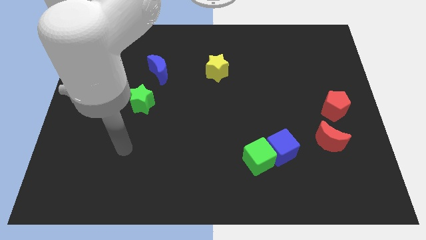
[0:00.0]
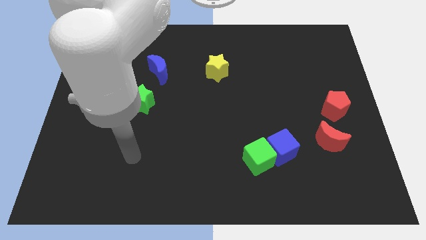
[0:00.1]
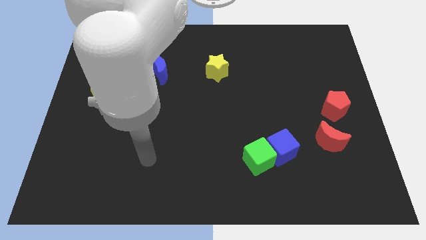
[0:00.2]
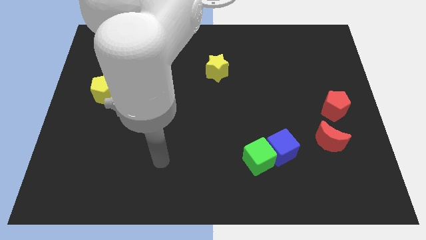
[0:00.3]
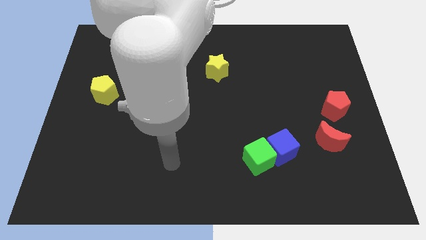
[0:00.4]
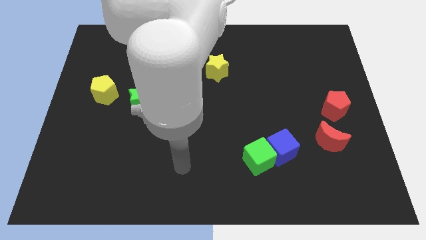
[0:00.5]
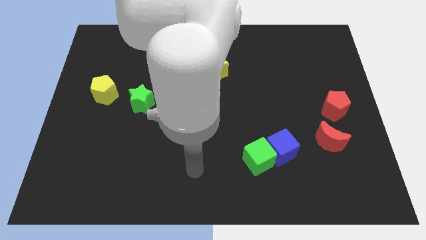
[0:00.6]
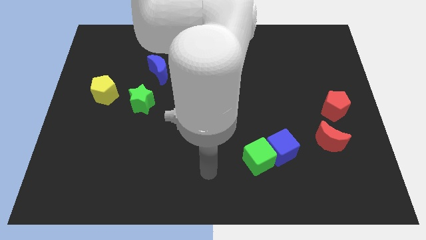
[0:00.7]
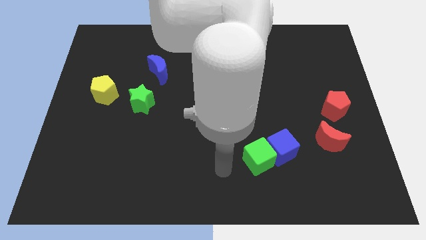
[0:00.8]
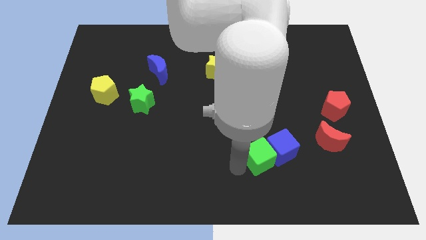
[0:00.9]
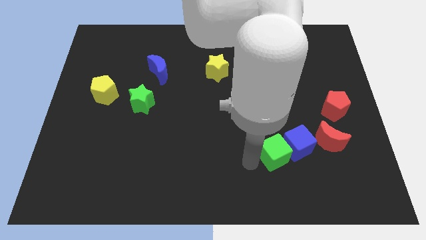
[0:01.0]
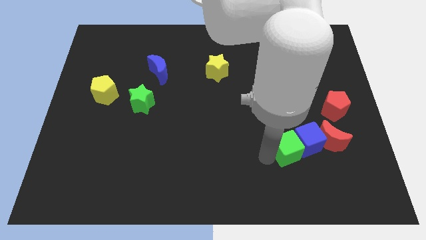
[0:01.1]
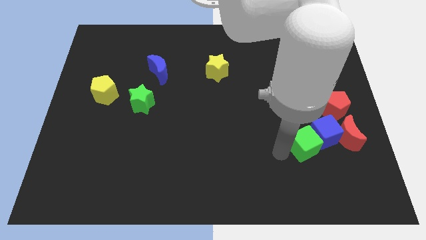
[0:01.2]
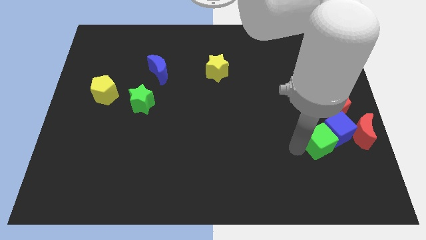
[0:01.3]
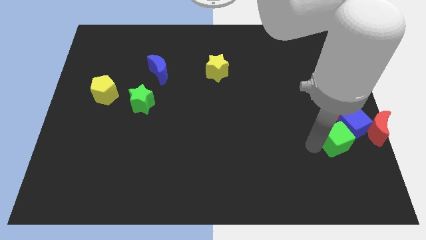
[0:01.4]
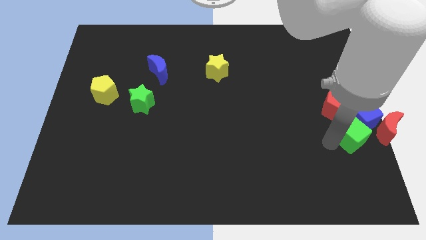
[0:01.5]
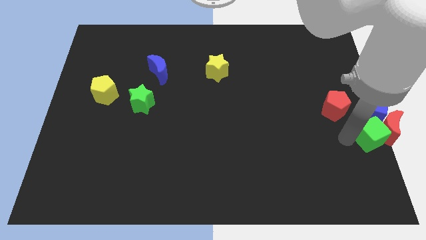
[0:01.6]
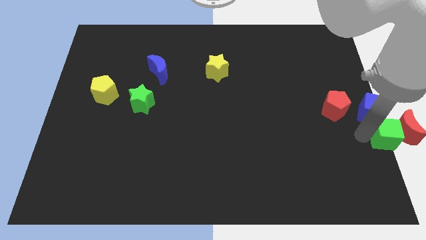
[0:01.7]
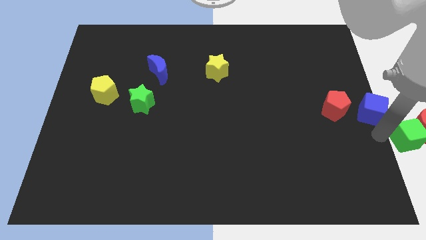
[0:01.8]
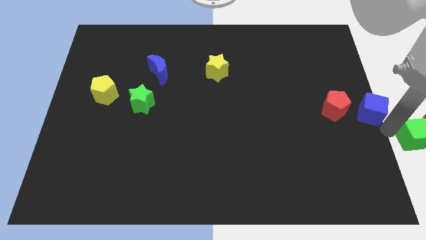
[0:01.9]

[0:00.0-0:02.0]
move the blue cube away from the green cube

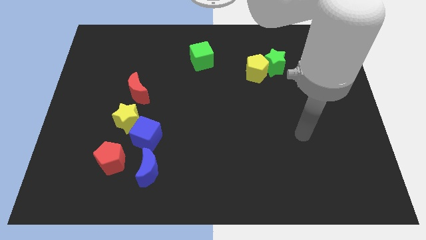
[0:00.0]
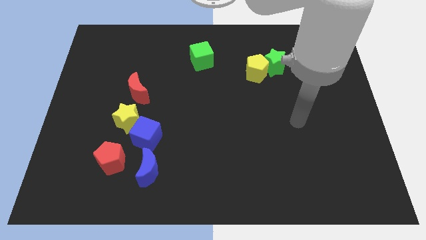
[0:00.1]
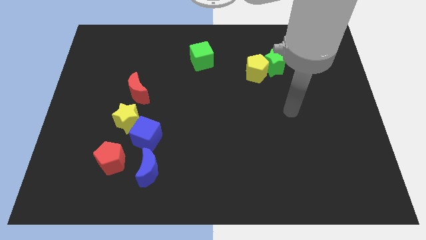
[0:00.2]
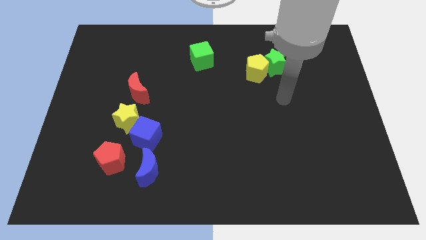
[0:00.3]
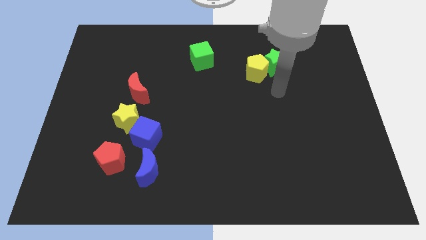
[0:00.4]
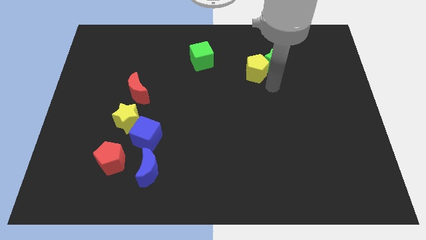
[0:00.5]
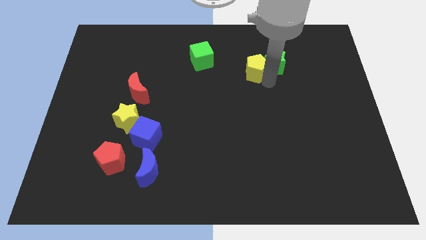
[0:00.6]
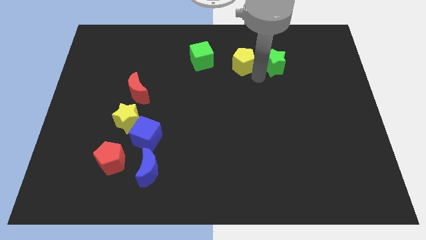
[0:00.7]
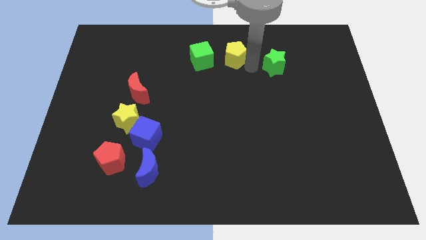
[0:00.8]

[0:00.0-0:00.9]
pull the green star apart from the yellow pentagon

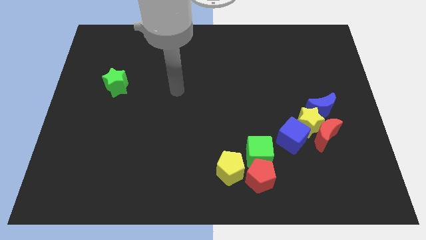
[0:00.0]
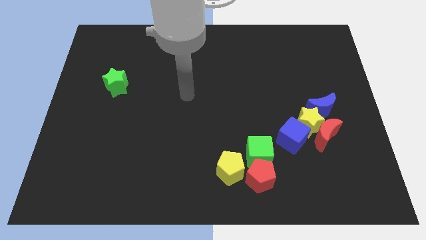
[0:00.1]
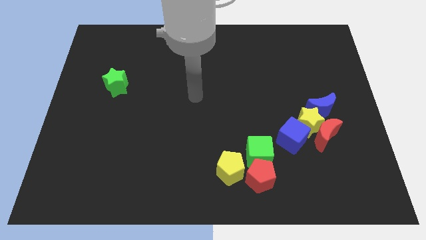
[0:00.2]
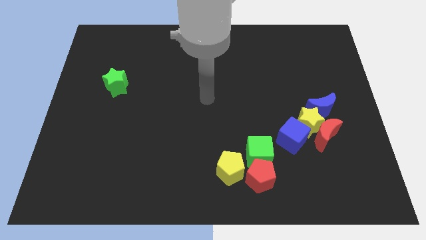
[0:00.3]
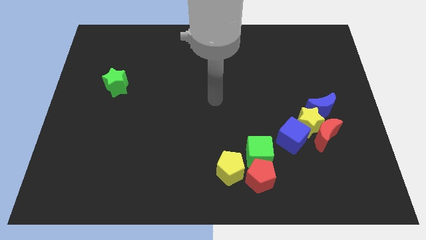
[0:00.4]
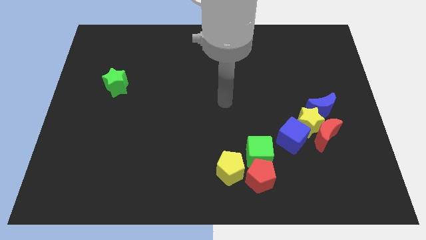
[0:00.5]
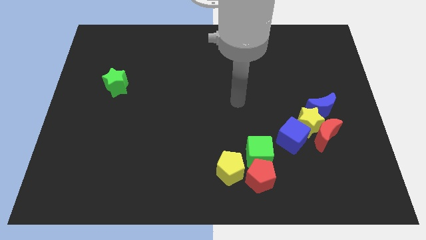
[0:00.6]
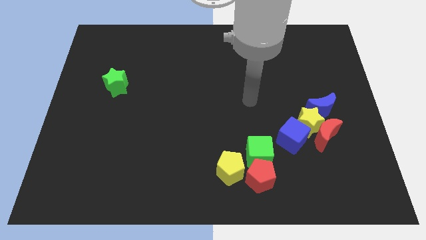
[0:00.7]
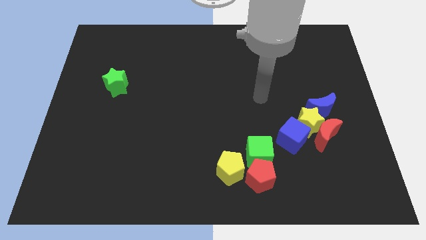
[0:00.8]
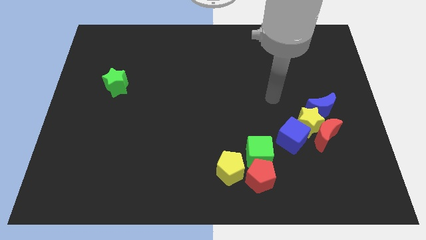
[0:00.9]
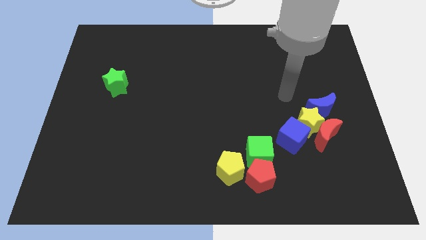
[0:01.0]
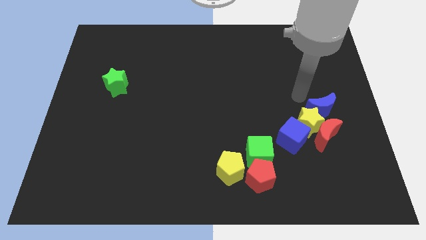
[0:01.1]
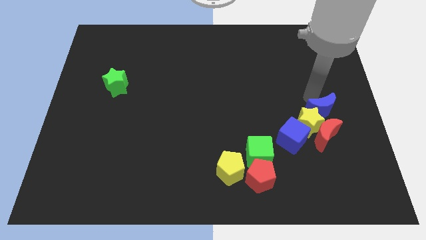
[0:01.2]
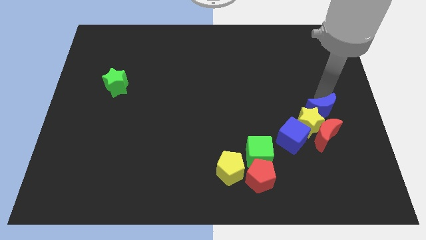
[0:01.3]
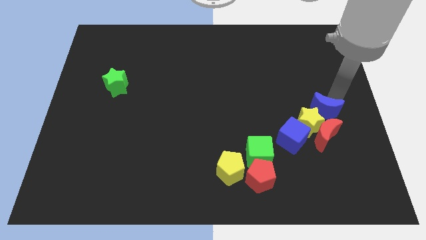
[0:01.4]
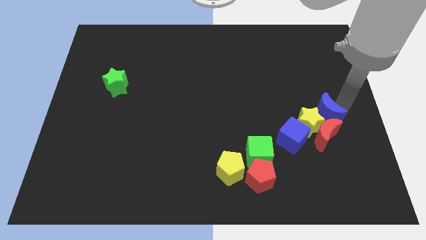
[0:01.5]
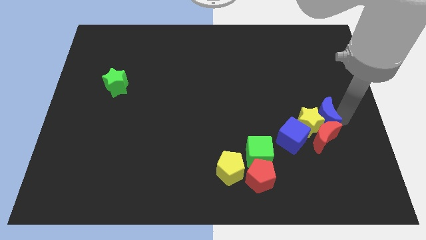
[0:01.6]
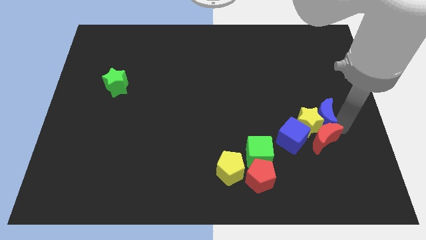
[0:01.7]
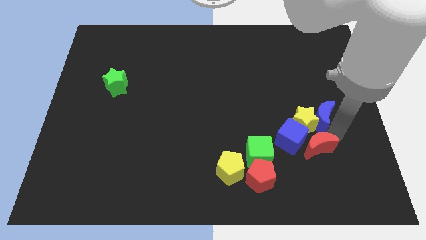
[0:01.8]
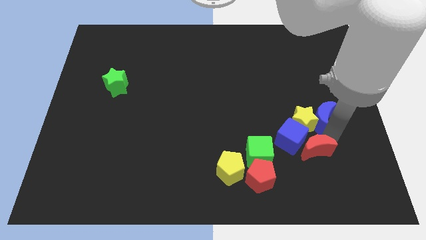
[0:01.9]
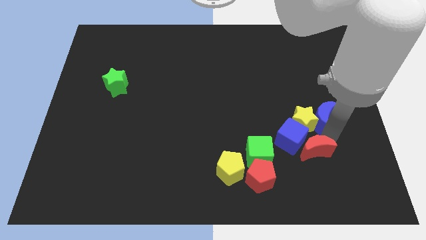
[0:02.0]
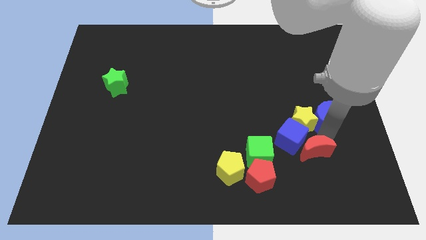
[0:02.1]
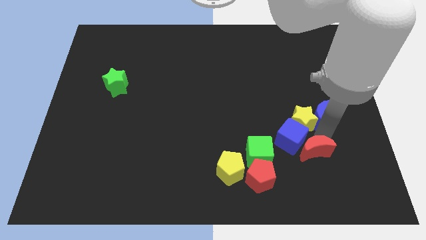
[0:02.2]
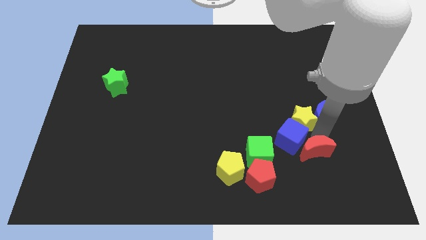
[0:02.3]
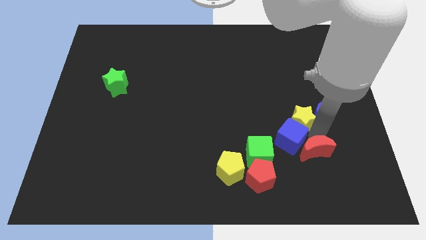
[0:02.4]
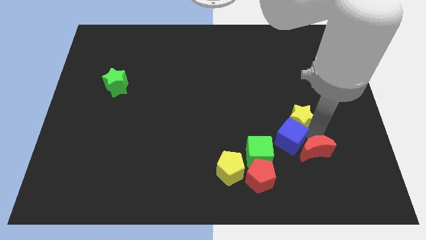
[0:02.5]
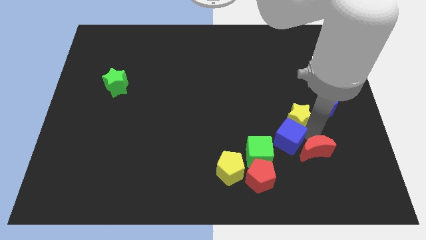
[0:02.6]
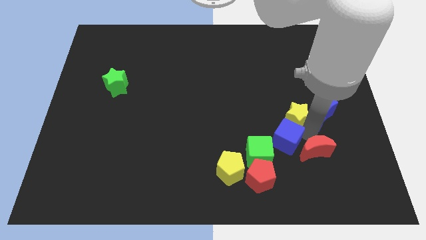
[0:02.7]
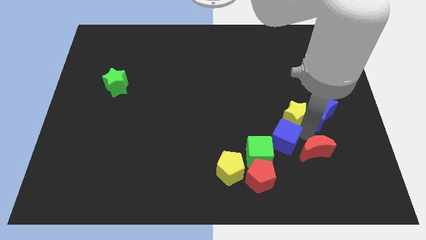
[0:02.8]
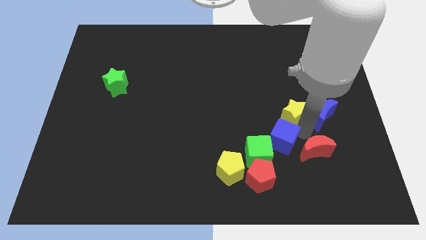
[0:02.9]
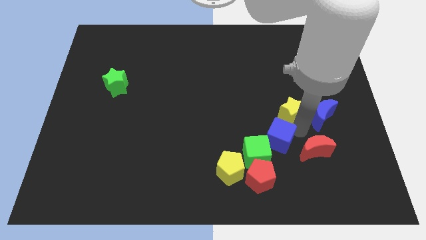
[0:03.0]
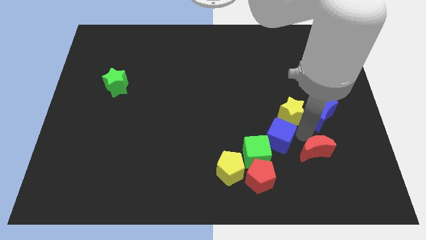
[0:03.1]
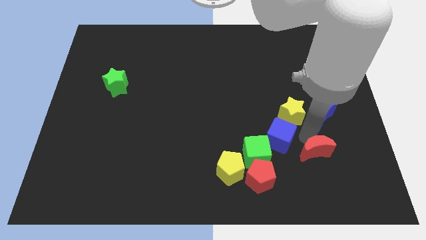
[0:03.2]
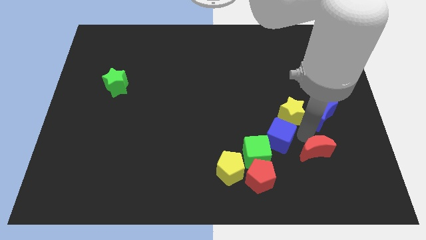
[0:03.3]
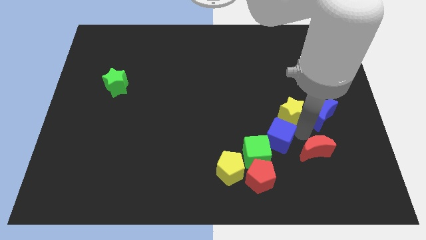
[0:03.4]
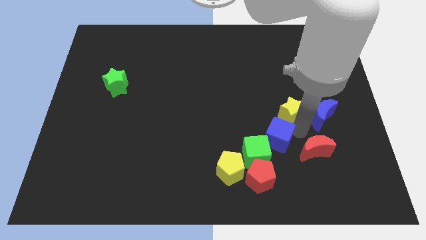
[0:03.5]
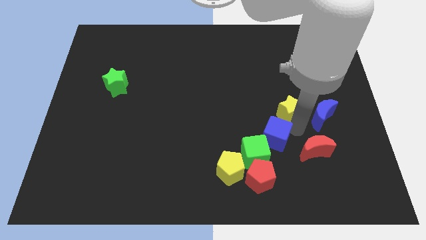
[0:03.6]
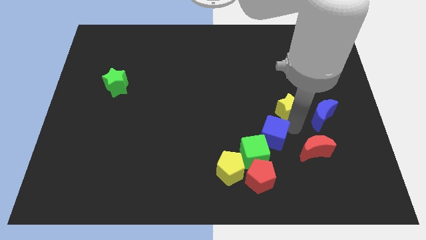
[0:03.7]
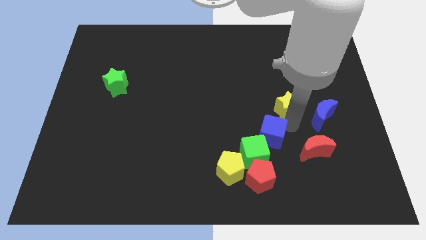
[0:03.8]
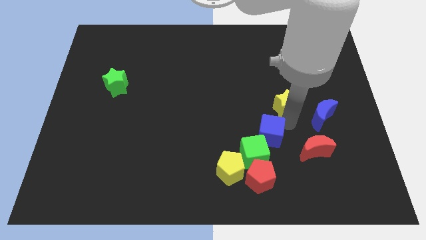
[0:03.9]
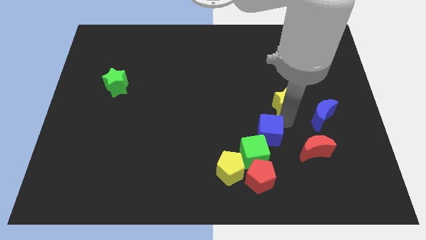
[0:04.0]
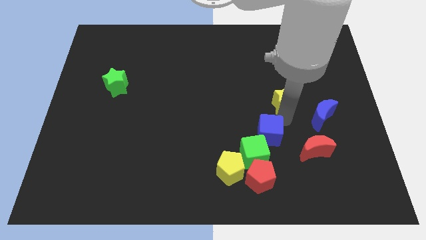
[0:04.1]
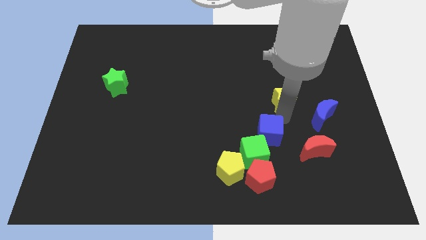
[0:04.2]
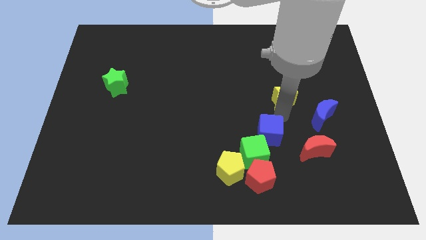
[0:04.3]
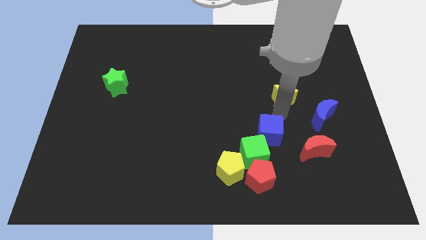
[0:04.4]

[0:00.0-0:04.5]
move the yellow star away from the red moon, blue cube, and blue moon

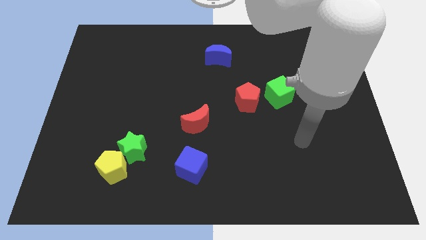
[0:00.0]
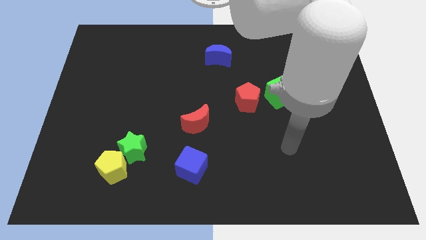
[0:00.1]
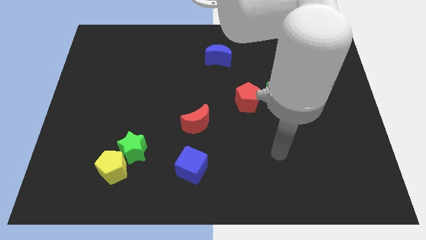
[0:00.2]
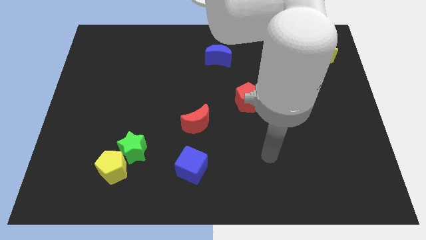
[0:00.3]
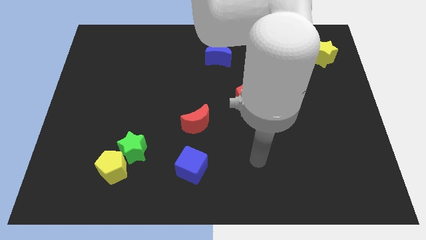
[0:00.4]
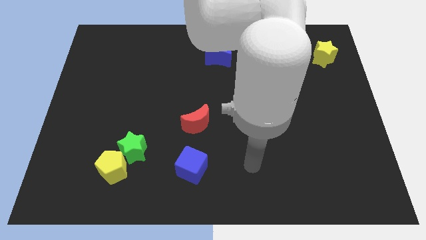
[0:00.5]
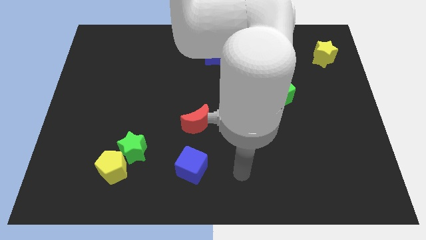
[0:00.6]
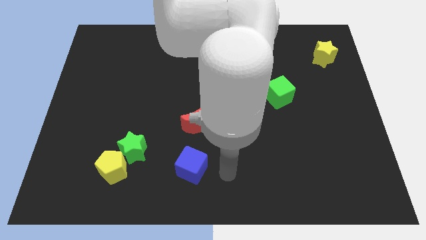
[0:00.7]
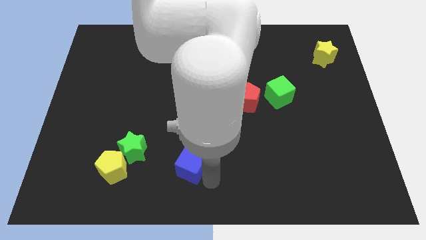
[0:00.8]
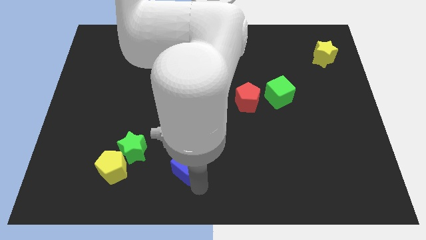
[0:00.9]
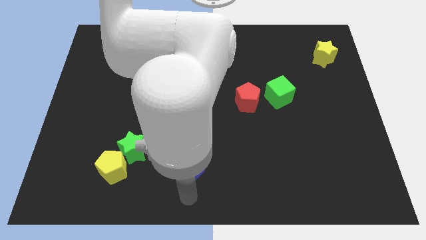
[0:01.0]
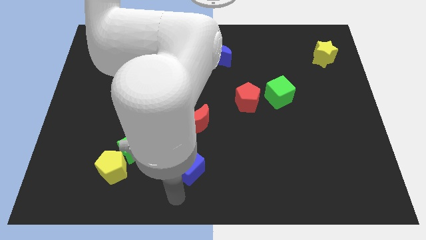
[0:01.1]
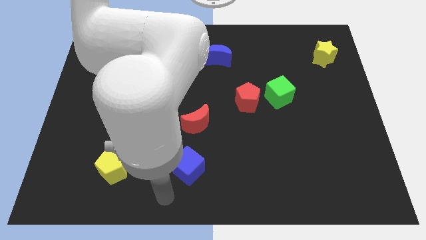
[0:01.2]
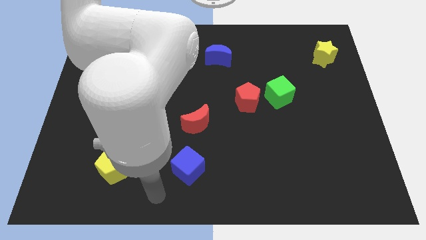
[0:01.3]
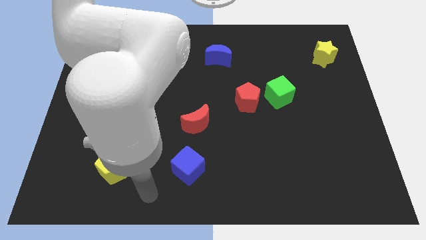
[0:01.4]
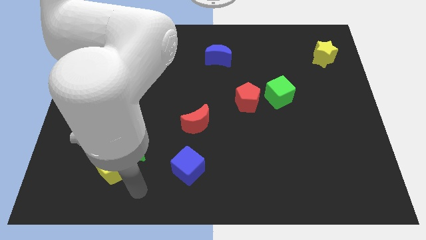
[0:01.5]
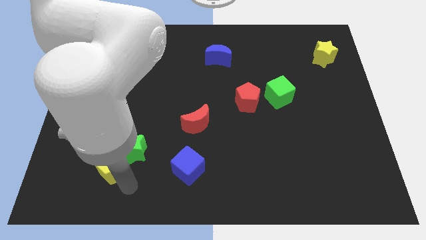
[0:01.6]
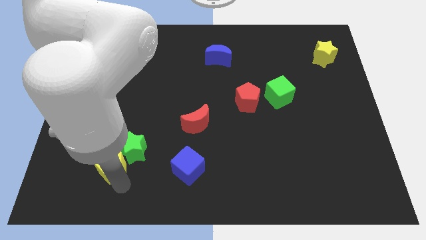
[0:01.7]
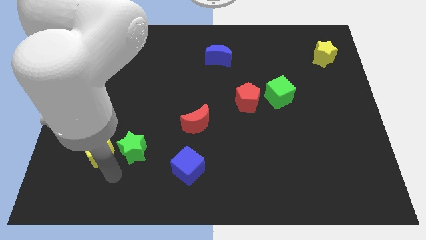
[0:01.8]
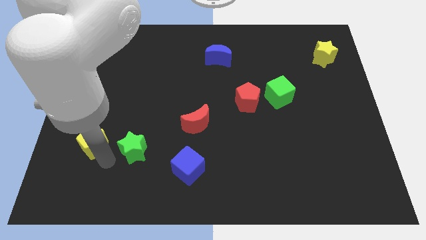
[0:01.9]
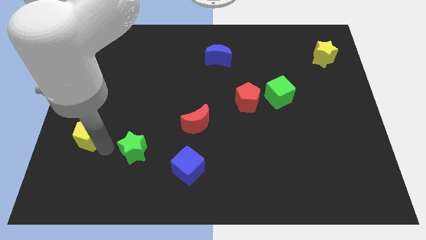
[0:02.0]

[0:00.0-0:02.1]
separate the green star from the yellow pentagon
